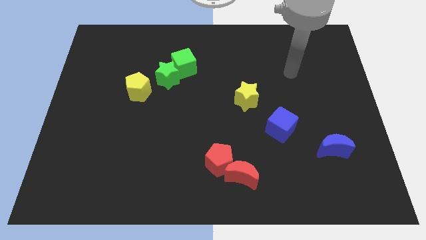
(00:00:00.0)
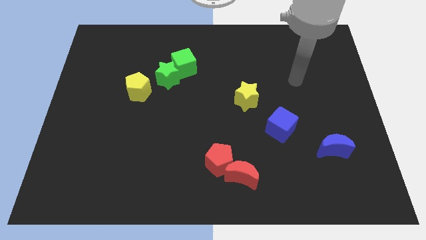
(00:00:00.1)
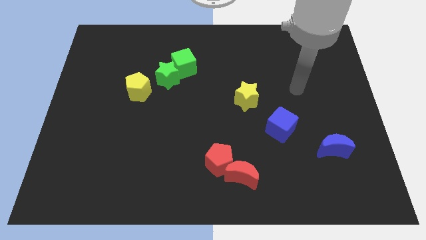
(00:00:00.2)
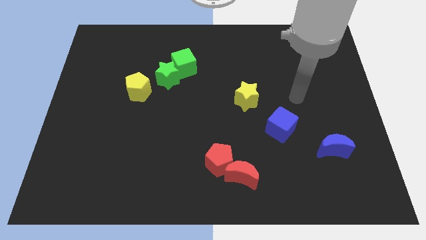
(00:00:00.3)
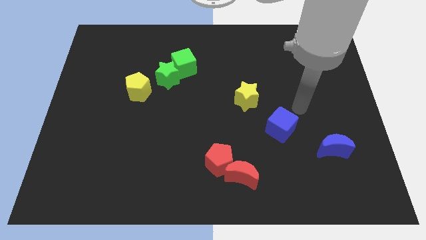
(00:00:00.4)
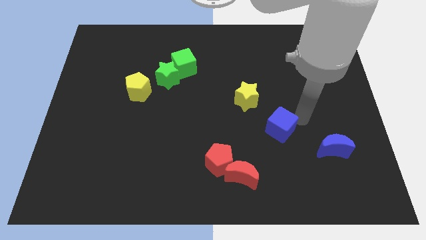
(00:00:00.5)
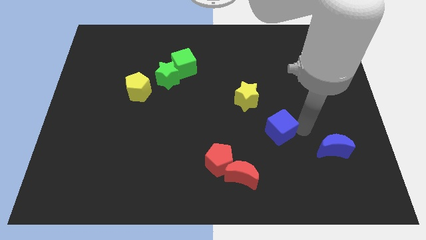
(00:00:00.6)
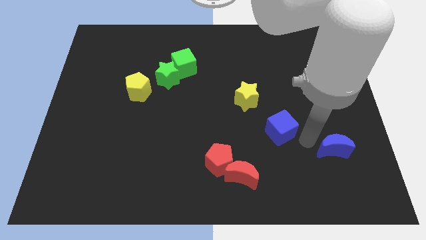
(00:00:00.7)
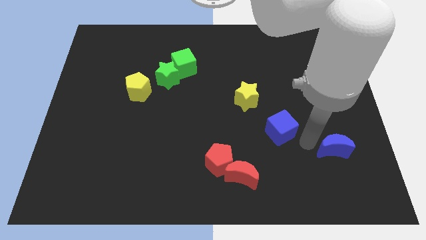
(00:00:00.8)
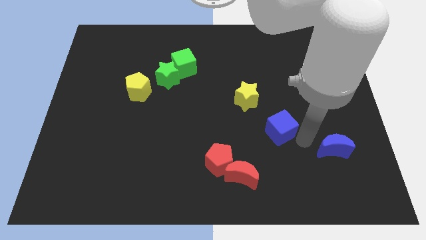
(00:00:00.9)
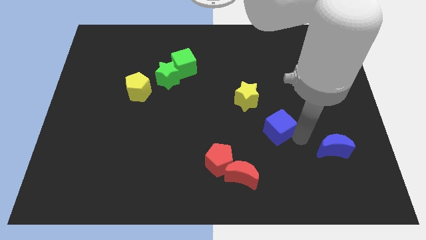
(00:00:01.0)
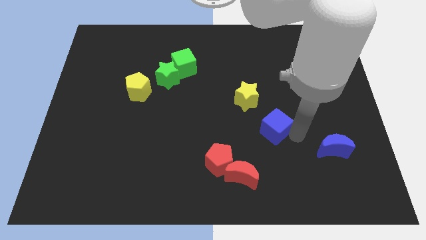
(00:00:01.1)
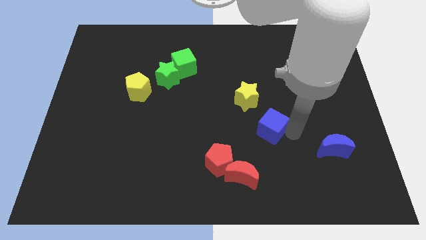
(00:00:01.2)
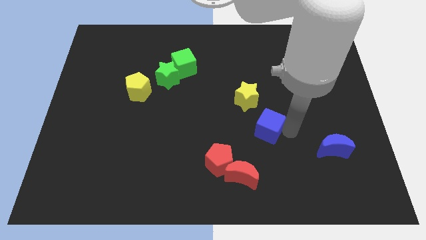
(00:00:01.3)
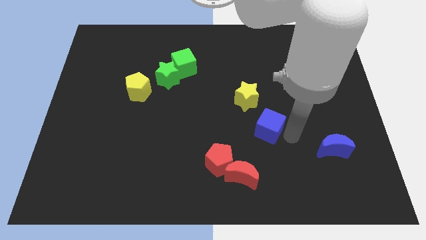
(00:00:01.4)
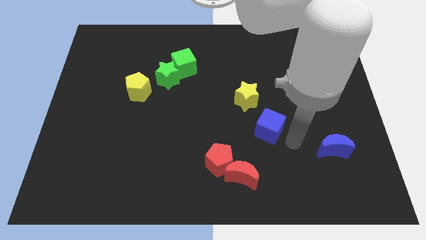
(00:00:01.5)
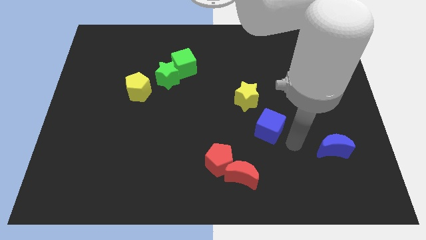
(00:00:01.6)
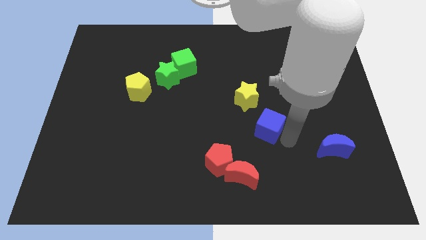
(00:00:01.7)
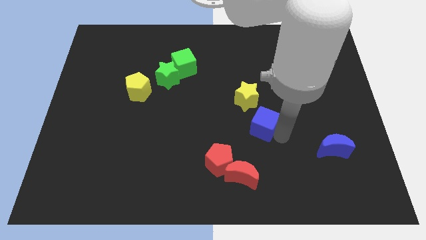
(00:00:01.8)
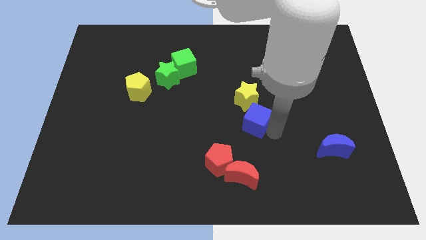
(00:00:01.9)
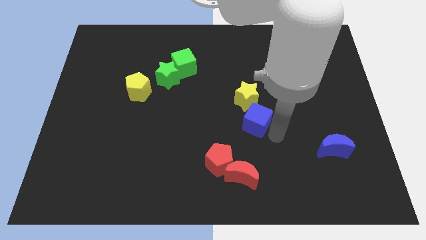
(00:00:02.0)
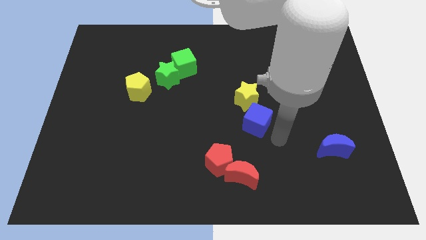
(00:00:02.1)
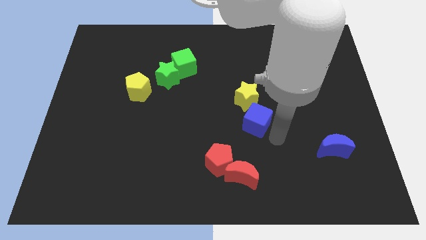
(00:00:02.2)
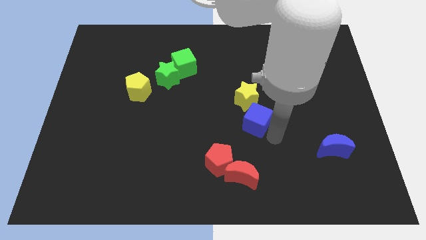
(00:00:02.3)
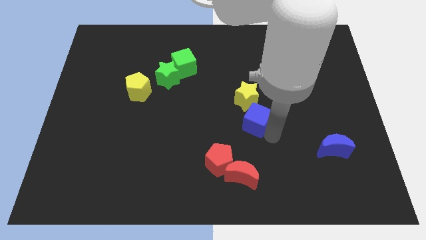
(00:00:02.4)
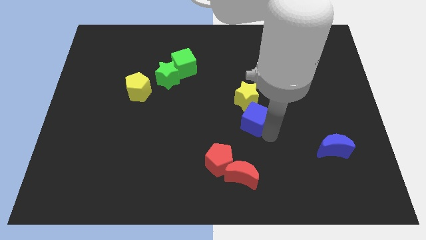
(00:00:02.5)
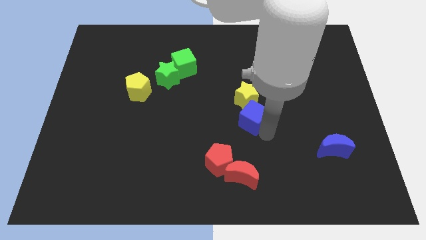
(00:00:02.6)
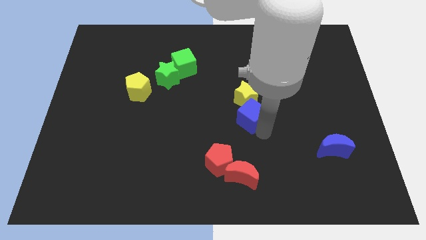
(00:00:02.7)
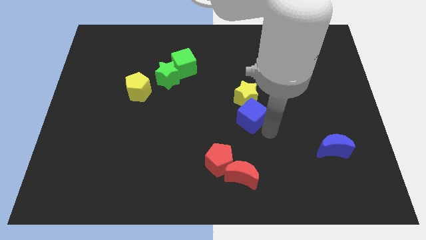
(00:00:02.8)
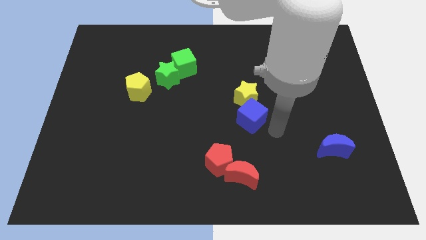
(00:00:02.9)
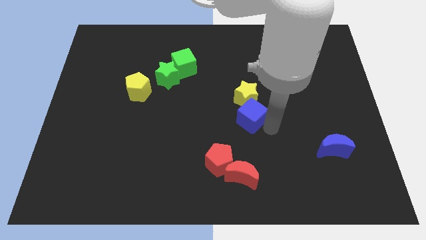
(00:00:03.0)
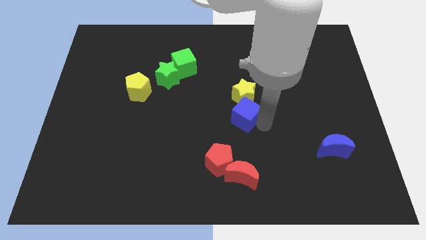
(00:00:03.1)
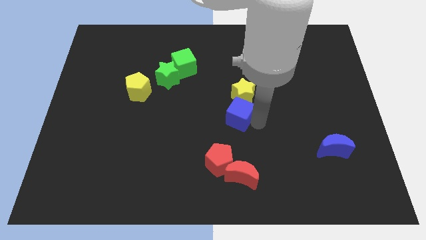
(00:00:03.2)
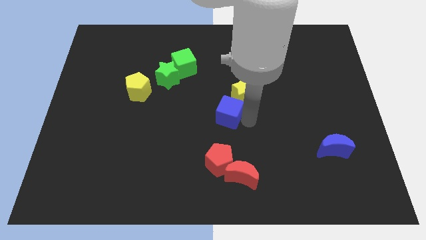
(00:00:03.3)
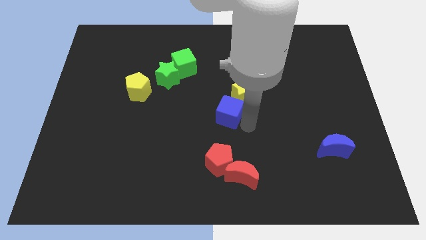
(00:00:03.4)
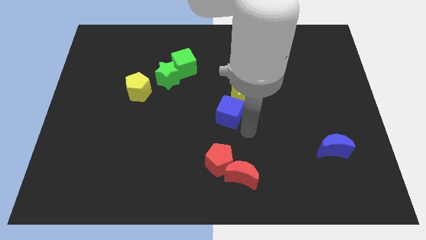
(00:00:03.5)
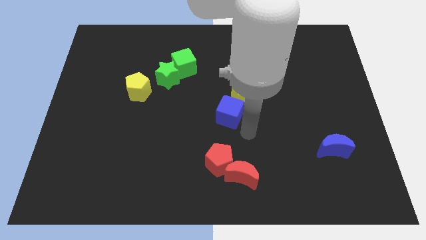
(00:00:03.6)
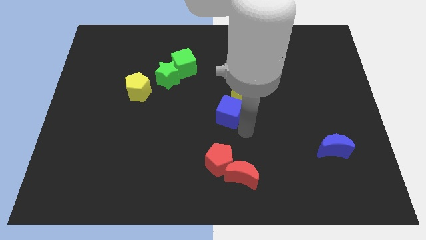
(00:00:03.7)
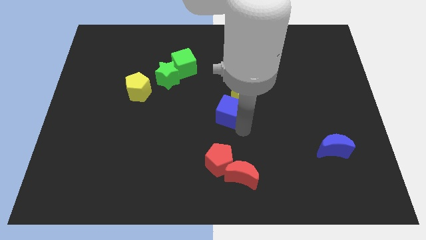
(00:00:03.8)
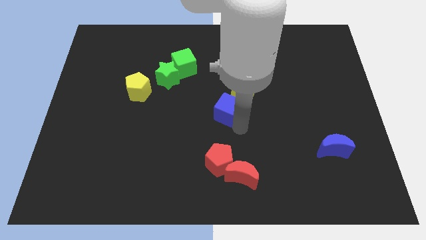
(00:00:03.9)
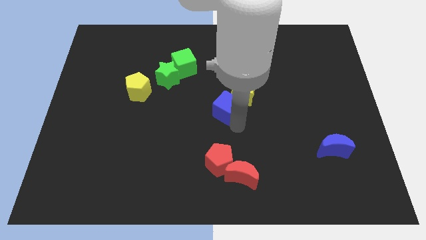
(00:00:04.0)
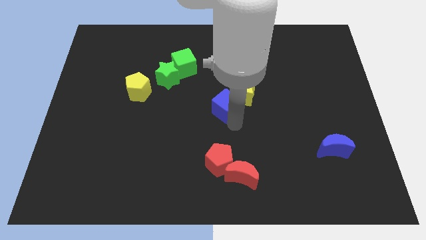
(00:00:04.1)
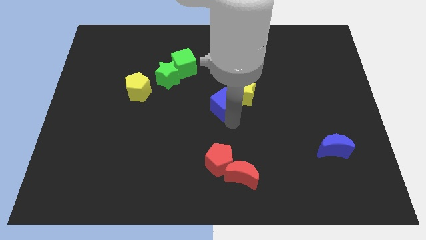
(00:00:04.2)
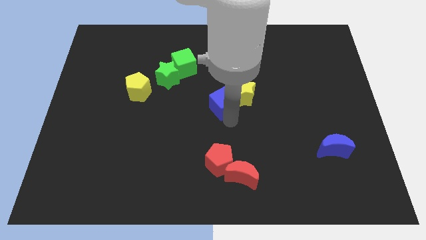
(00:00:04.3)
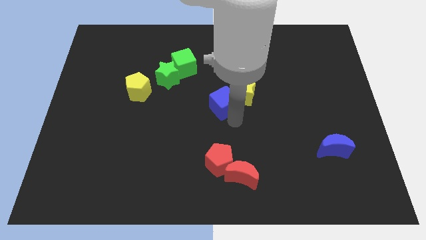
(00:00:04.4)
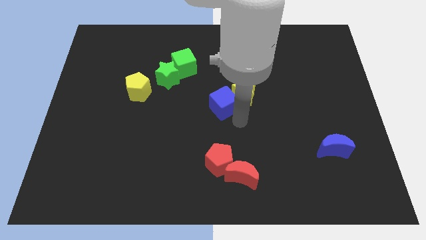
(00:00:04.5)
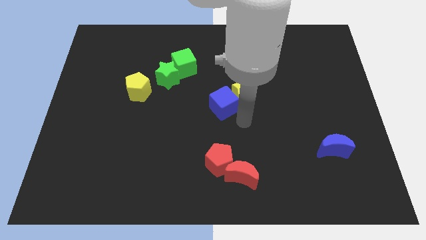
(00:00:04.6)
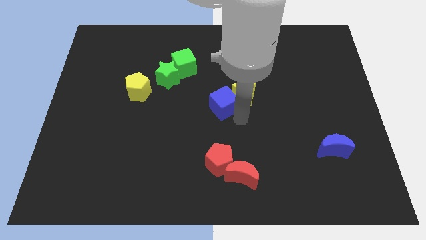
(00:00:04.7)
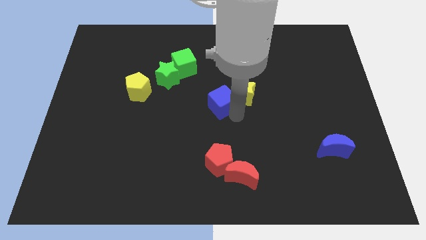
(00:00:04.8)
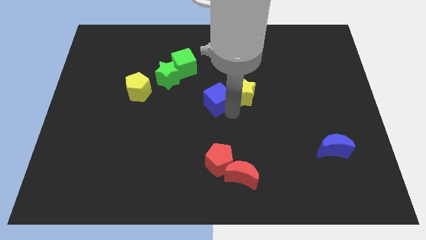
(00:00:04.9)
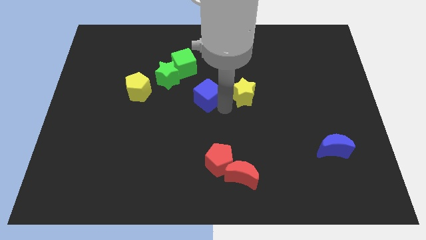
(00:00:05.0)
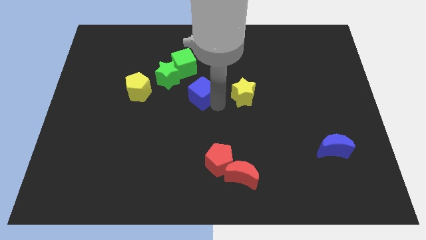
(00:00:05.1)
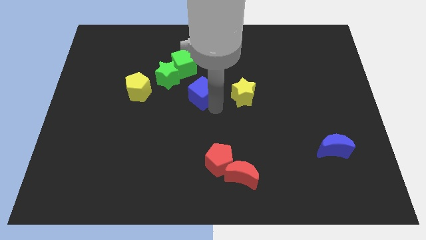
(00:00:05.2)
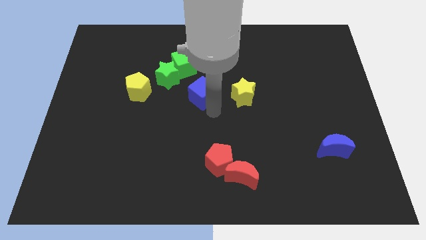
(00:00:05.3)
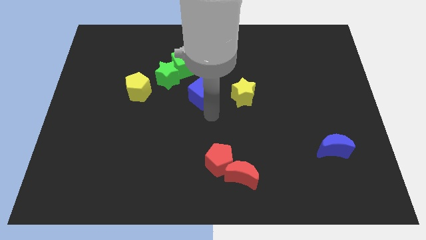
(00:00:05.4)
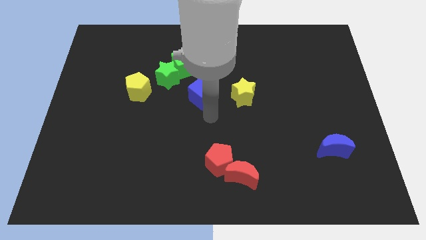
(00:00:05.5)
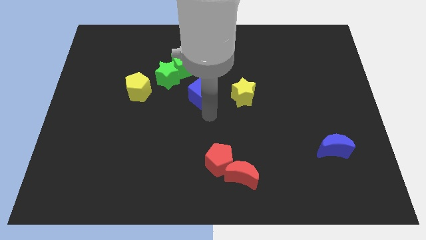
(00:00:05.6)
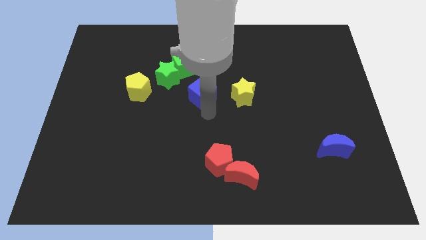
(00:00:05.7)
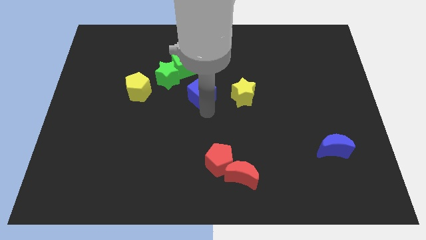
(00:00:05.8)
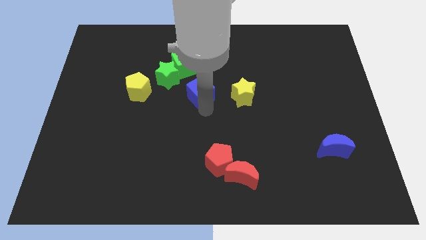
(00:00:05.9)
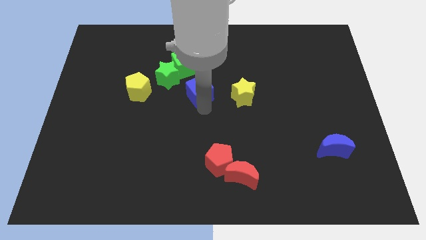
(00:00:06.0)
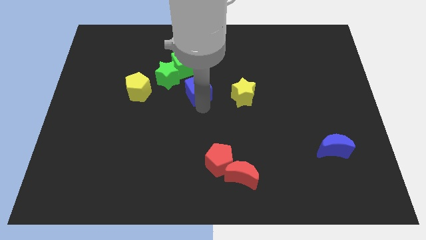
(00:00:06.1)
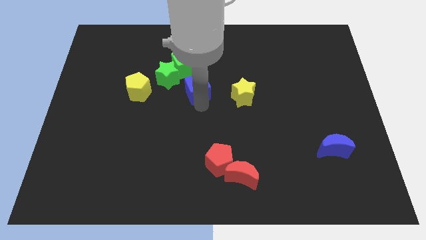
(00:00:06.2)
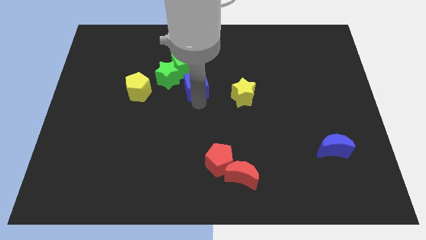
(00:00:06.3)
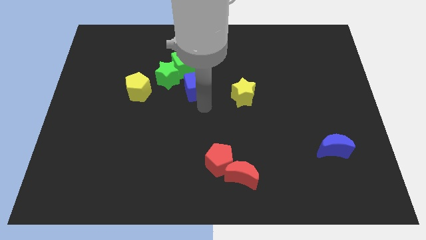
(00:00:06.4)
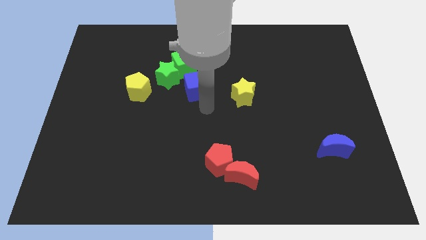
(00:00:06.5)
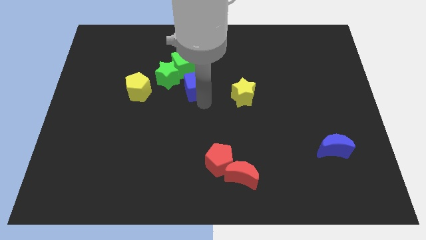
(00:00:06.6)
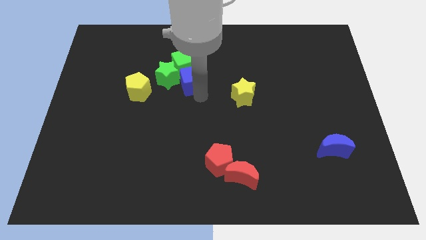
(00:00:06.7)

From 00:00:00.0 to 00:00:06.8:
move the blue cube close to the green cube
